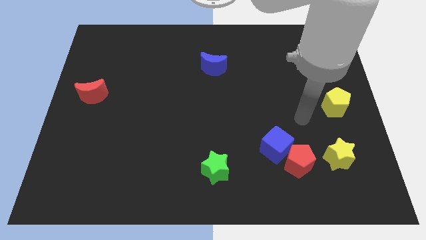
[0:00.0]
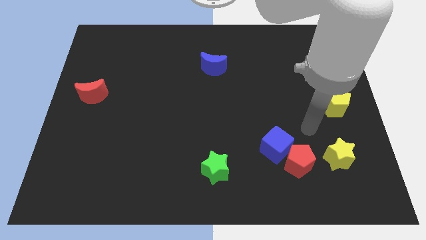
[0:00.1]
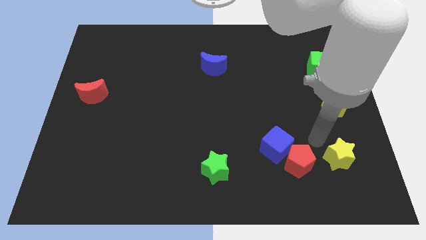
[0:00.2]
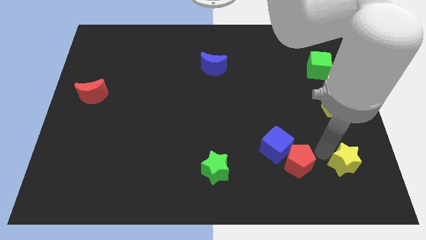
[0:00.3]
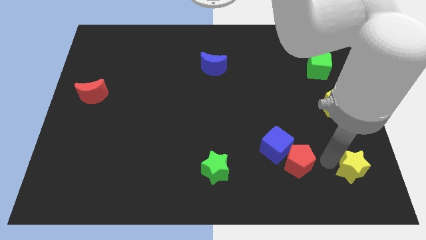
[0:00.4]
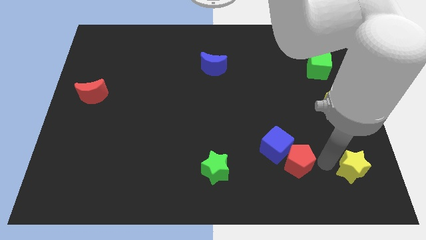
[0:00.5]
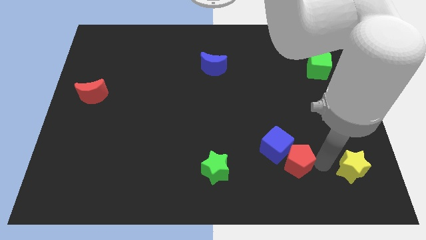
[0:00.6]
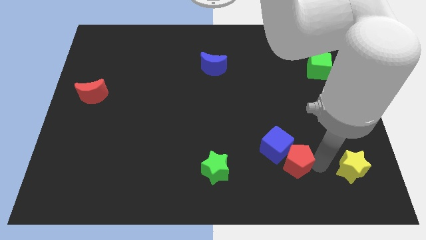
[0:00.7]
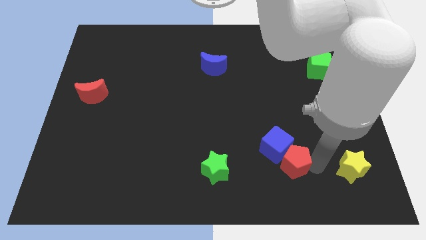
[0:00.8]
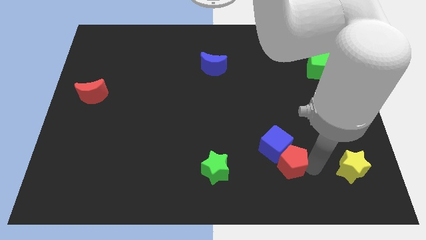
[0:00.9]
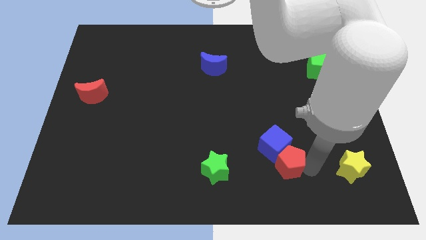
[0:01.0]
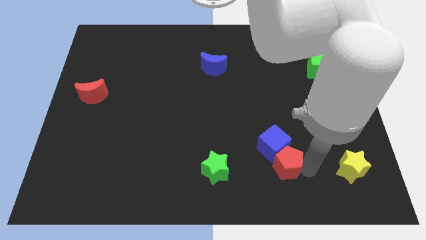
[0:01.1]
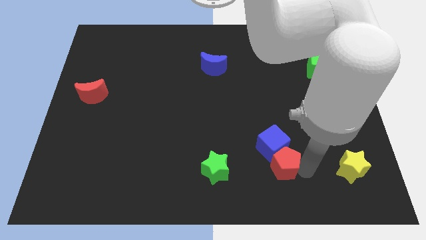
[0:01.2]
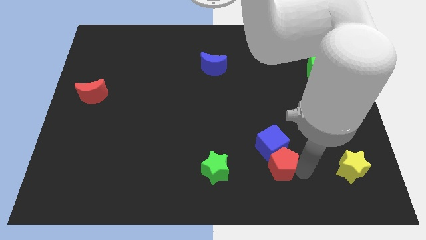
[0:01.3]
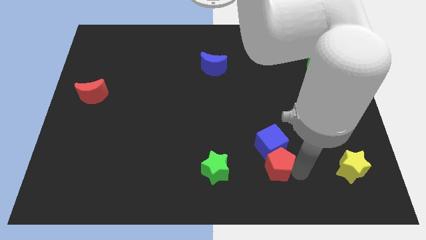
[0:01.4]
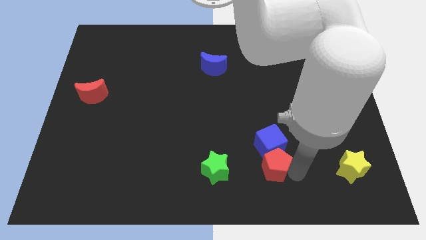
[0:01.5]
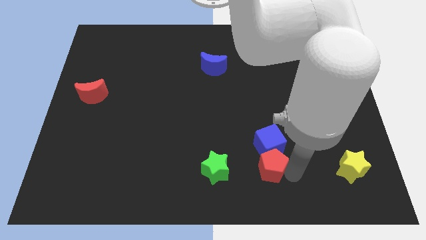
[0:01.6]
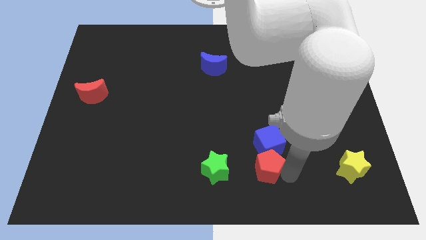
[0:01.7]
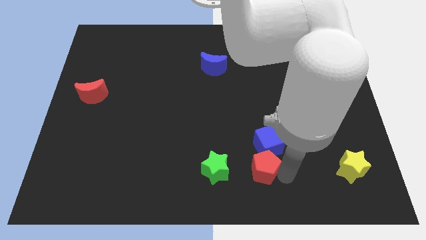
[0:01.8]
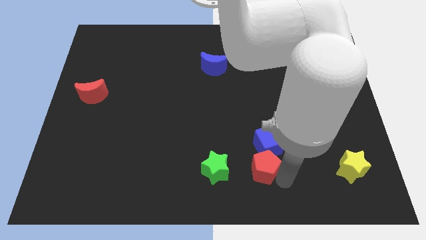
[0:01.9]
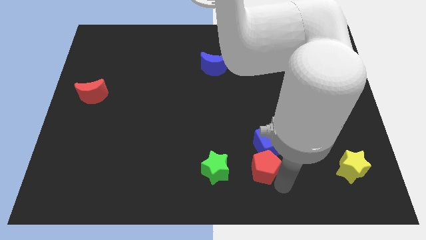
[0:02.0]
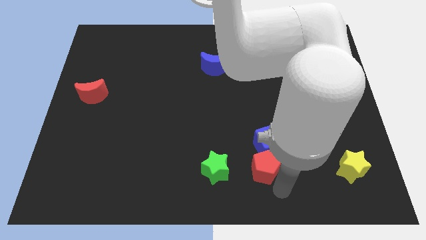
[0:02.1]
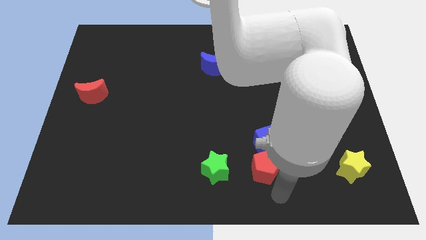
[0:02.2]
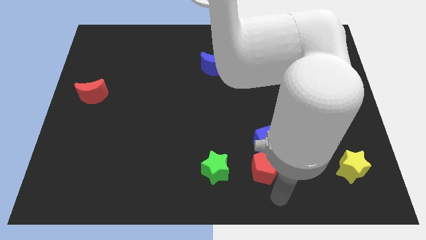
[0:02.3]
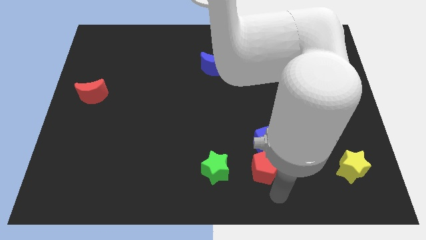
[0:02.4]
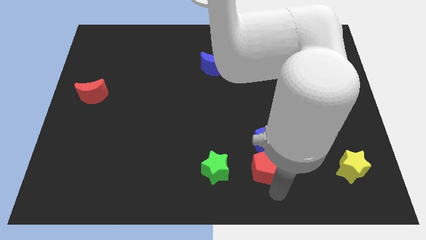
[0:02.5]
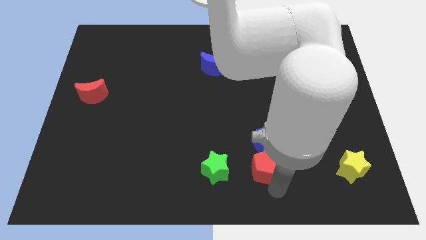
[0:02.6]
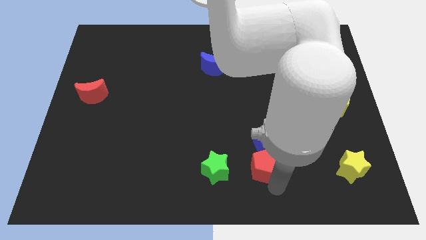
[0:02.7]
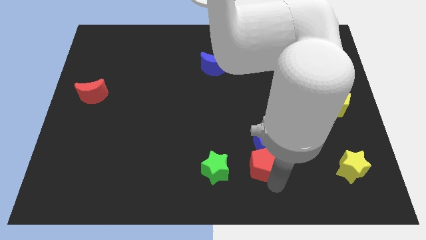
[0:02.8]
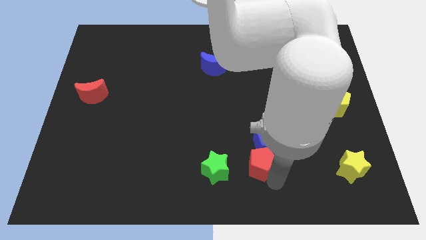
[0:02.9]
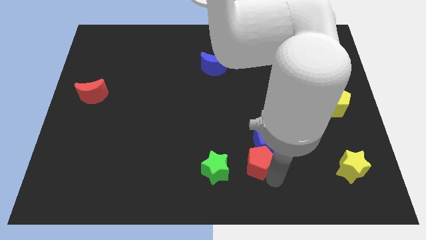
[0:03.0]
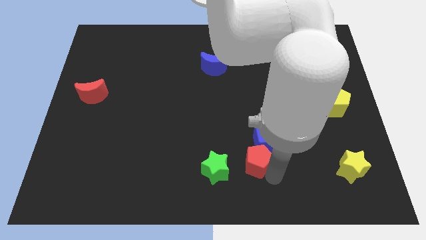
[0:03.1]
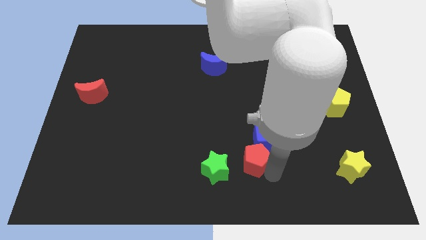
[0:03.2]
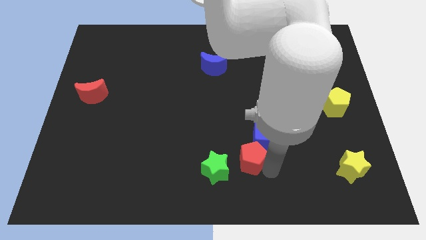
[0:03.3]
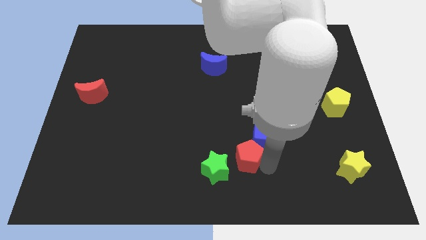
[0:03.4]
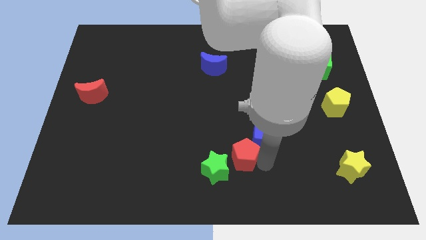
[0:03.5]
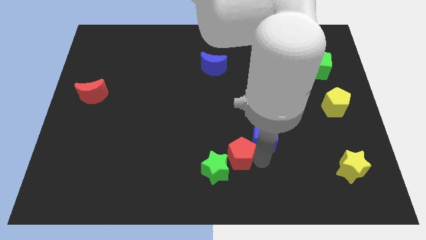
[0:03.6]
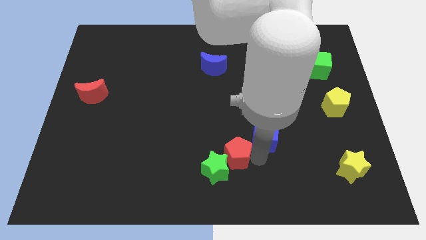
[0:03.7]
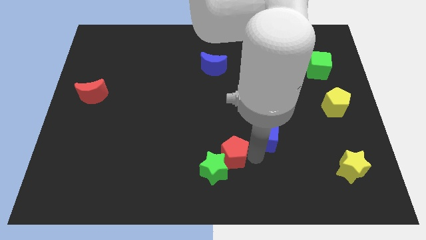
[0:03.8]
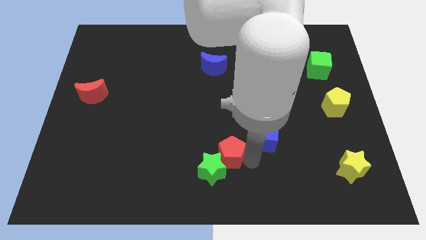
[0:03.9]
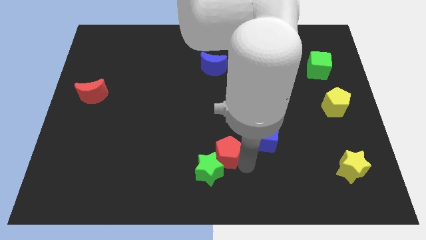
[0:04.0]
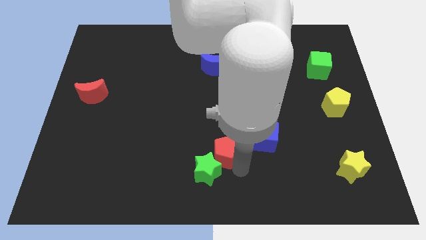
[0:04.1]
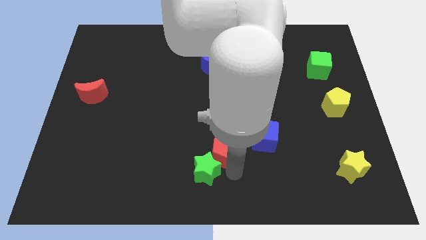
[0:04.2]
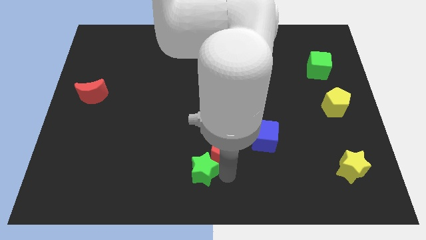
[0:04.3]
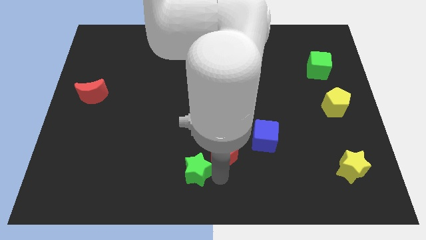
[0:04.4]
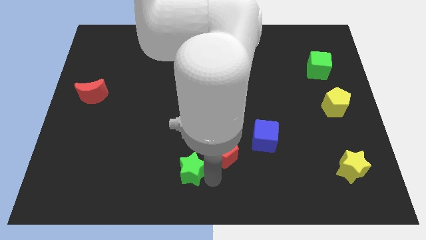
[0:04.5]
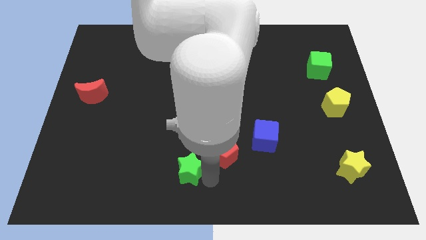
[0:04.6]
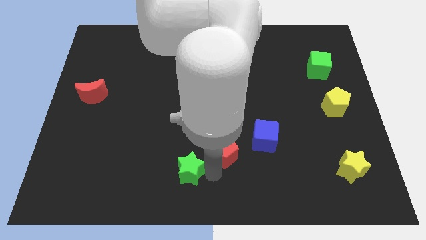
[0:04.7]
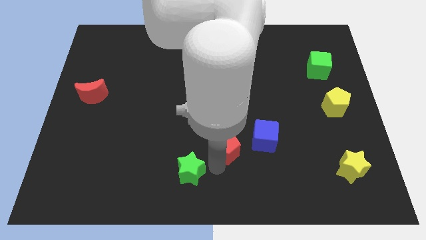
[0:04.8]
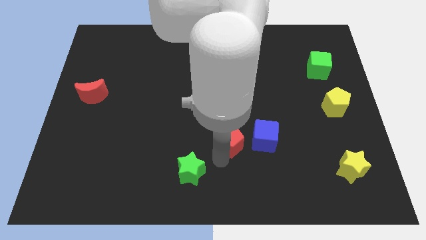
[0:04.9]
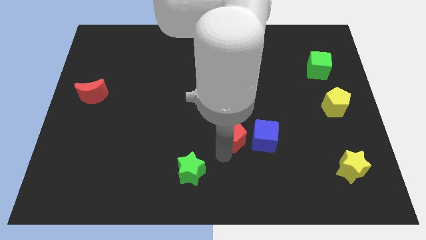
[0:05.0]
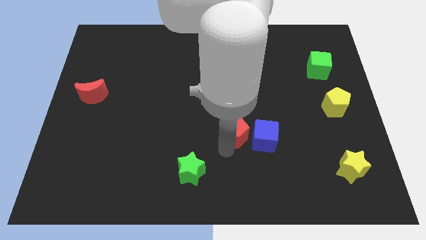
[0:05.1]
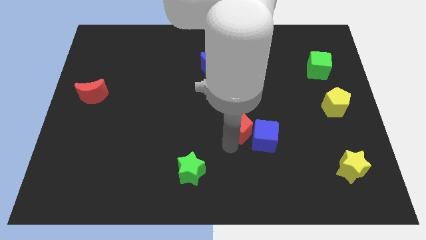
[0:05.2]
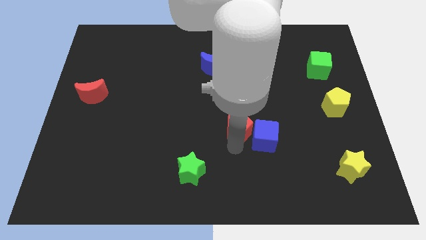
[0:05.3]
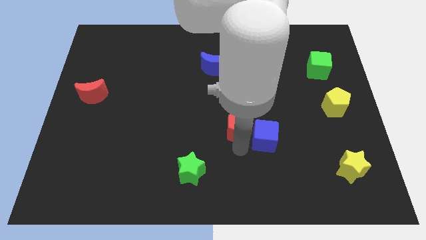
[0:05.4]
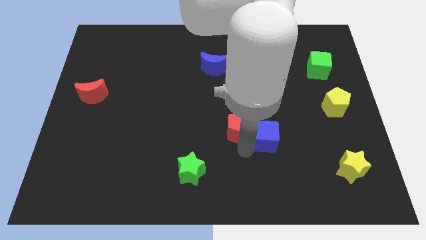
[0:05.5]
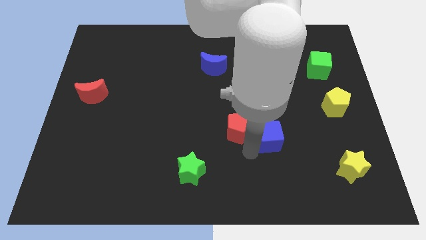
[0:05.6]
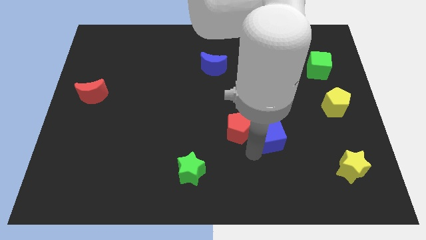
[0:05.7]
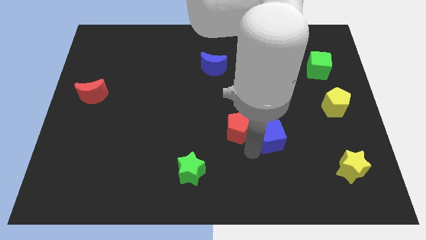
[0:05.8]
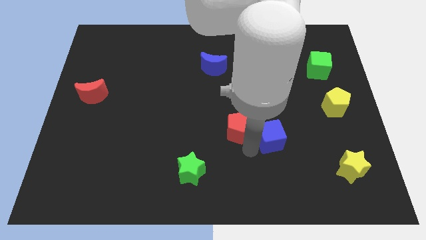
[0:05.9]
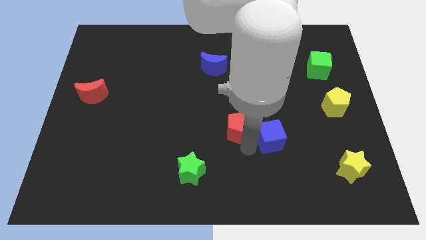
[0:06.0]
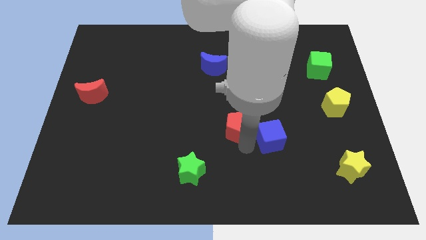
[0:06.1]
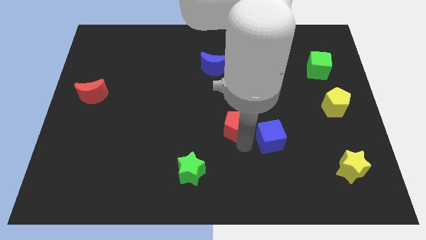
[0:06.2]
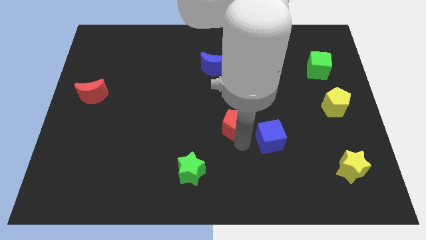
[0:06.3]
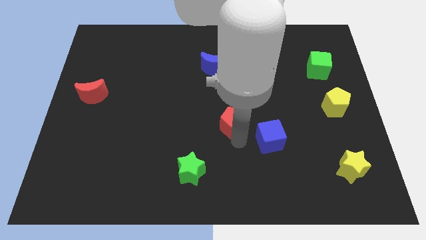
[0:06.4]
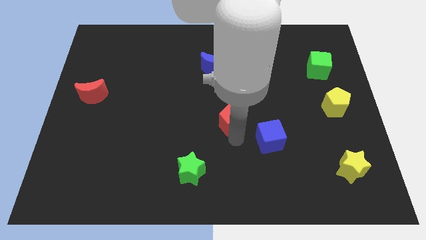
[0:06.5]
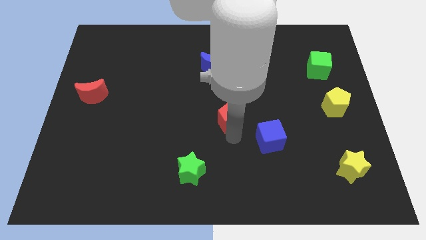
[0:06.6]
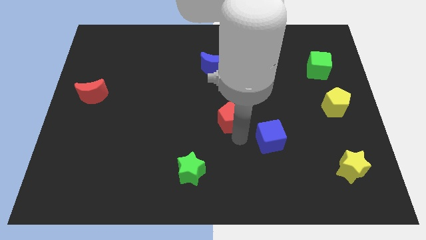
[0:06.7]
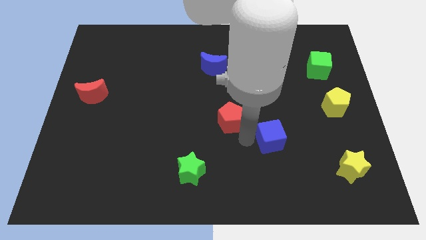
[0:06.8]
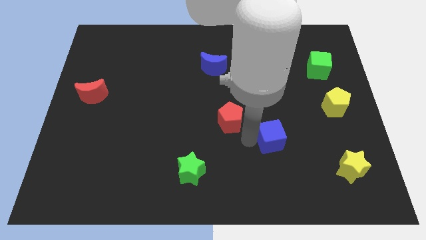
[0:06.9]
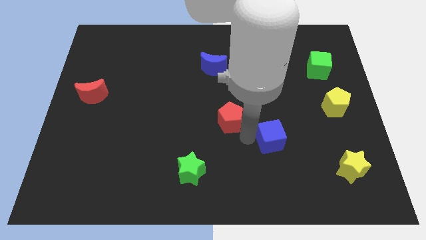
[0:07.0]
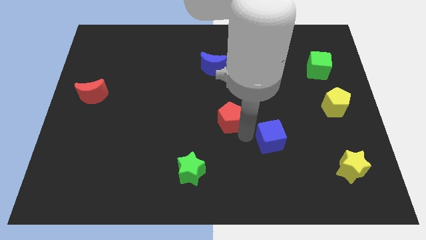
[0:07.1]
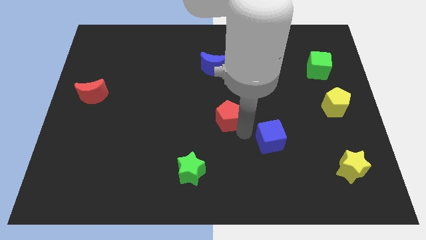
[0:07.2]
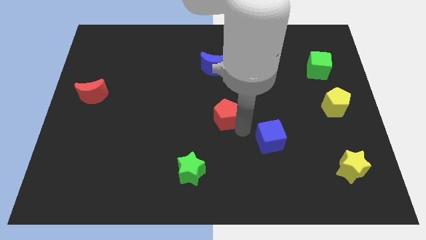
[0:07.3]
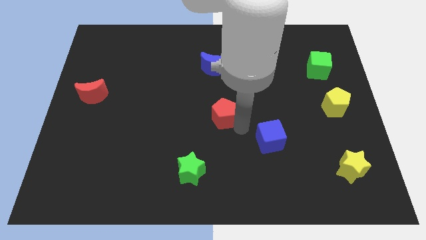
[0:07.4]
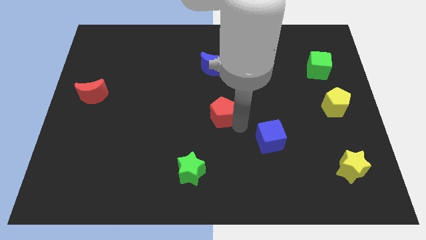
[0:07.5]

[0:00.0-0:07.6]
slide the red pentagon diagonally upwards and left

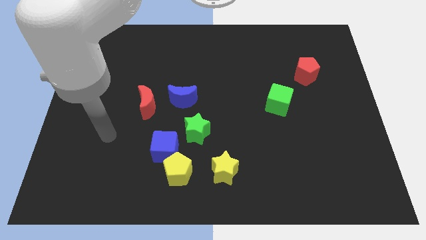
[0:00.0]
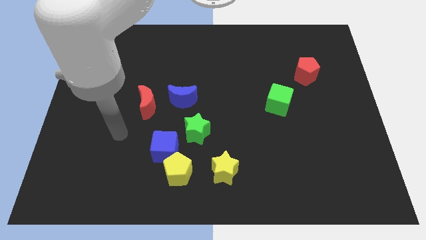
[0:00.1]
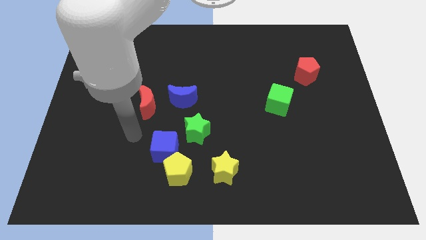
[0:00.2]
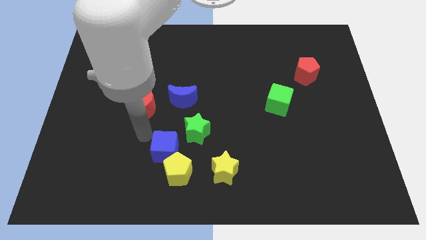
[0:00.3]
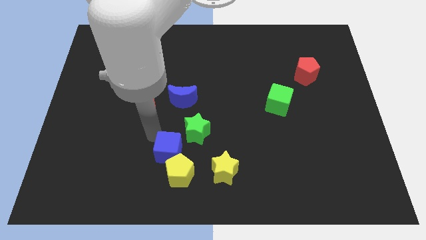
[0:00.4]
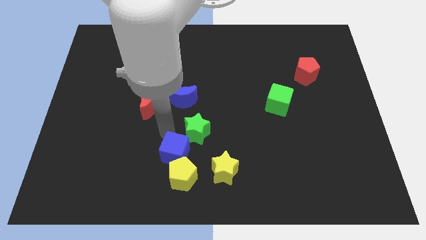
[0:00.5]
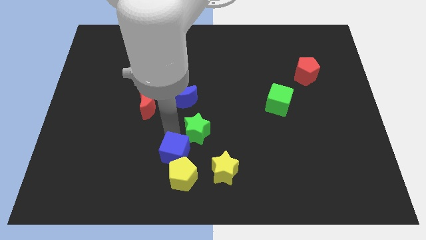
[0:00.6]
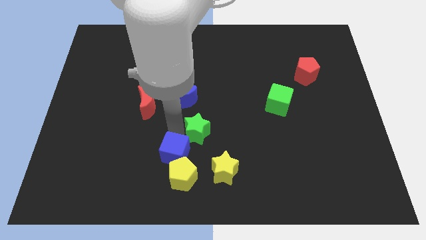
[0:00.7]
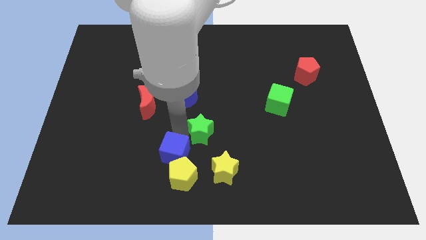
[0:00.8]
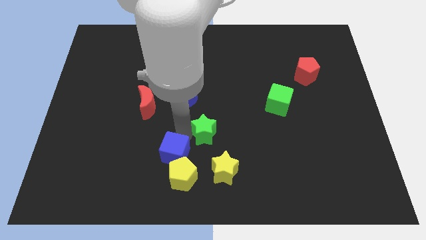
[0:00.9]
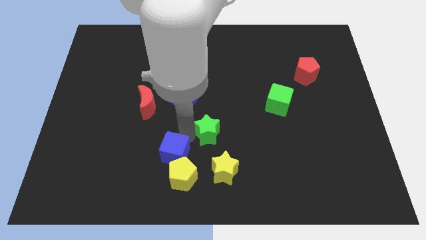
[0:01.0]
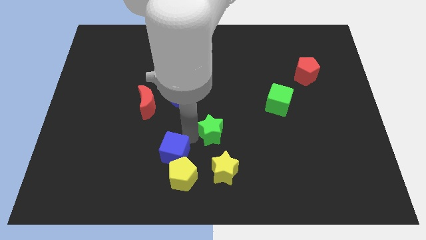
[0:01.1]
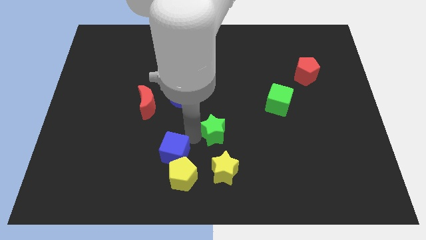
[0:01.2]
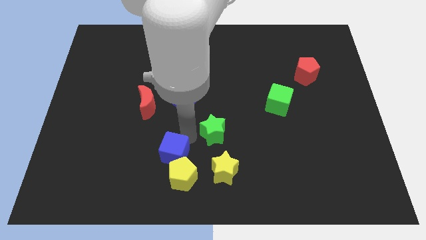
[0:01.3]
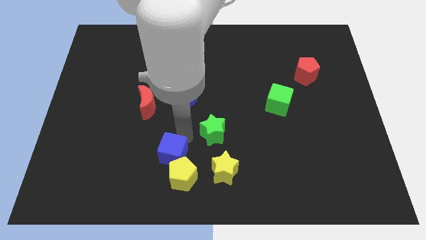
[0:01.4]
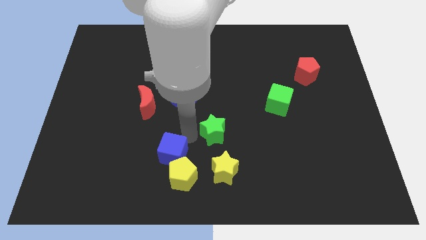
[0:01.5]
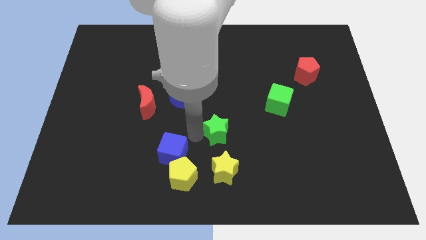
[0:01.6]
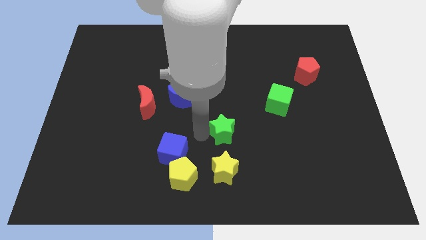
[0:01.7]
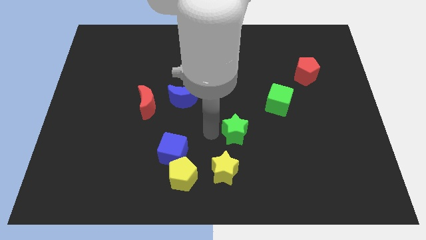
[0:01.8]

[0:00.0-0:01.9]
slightly move the green star to the right
